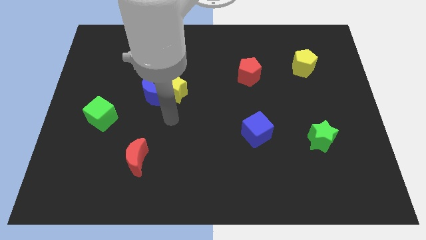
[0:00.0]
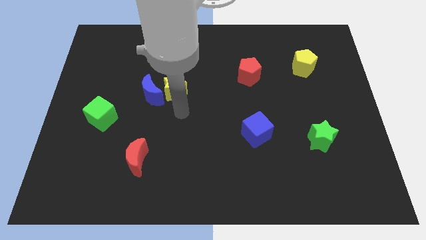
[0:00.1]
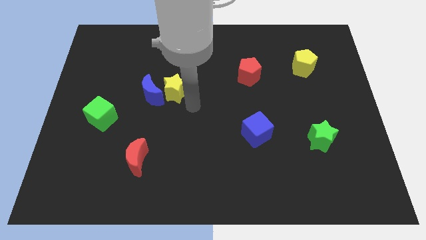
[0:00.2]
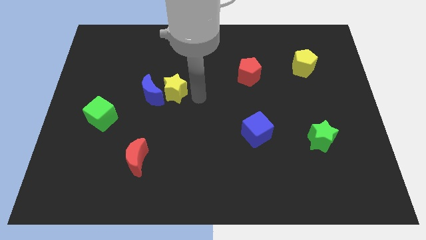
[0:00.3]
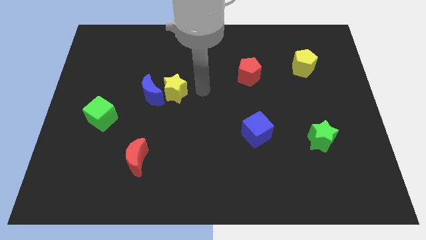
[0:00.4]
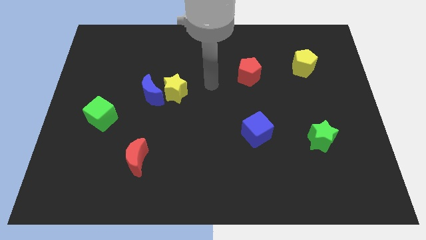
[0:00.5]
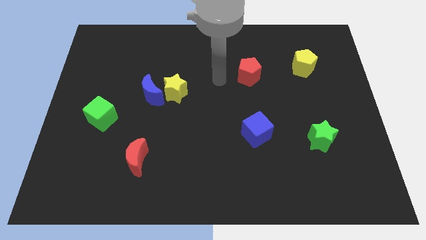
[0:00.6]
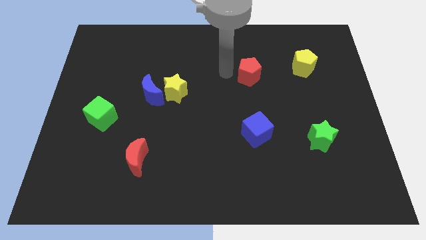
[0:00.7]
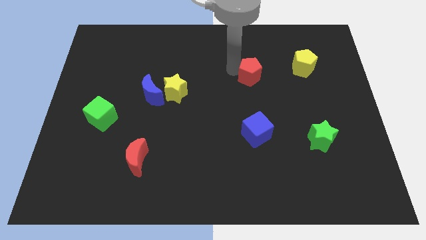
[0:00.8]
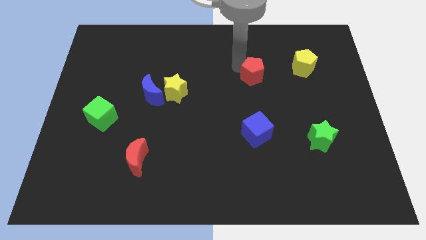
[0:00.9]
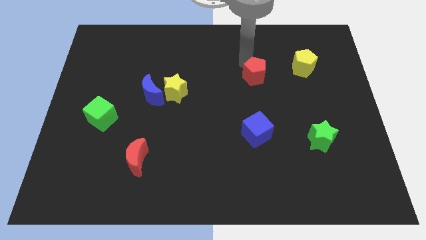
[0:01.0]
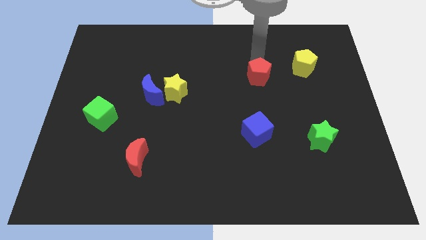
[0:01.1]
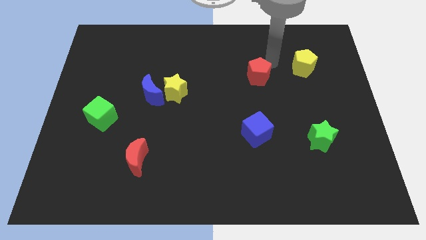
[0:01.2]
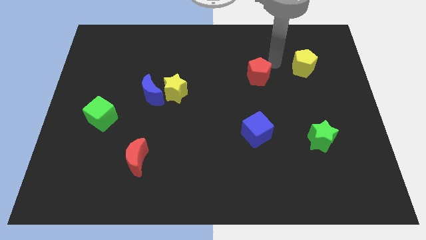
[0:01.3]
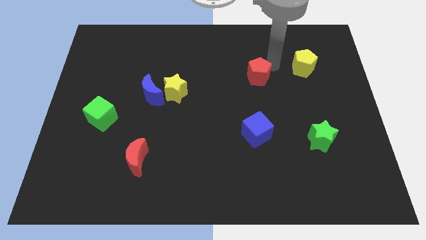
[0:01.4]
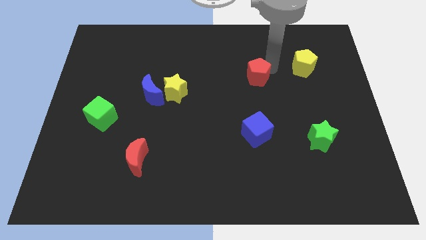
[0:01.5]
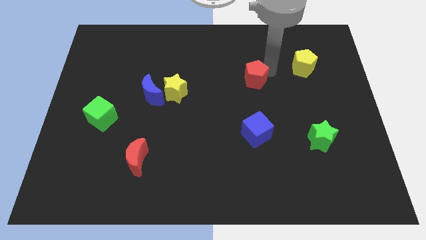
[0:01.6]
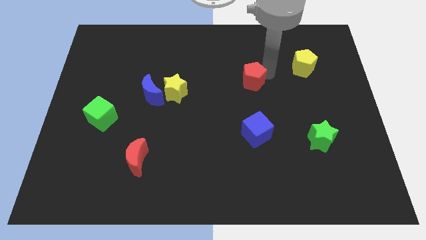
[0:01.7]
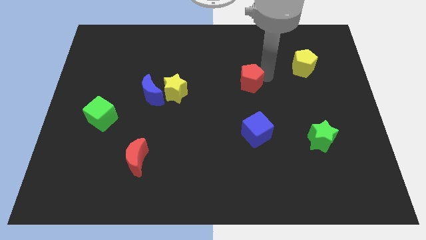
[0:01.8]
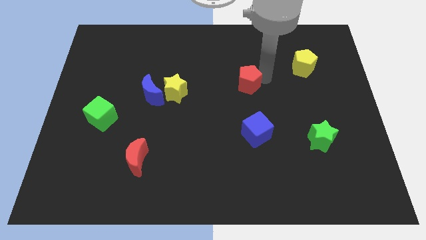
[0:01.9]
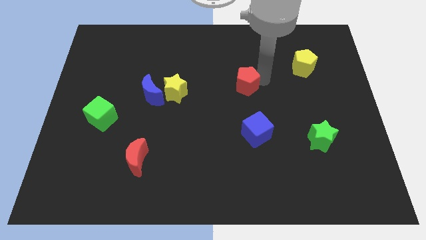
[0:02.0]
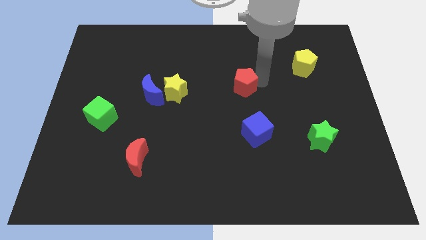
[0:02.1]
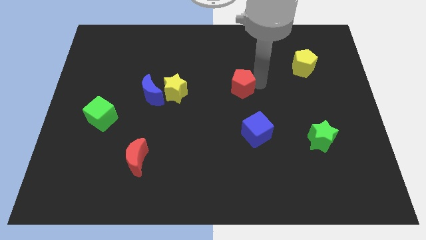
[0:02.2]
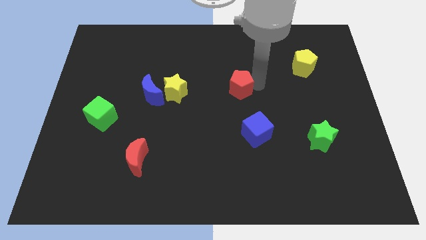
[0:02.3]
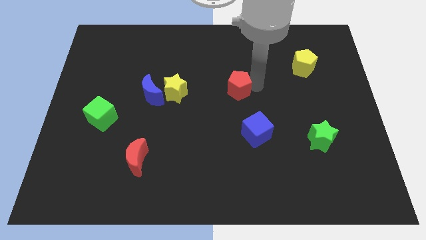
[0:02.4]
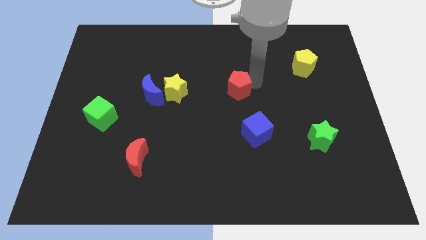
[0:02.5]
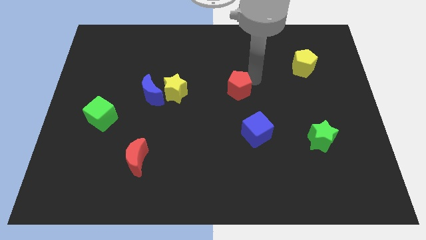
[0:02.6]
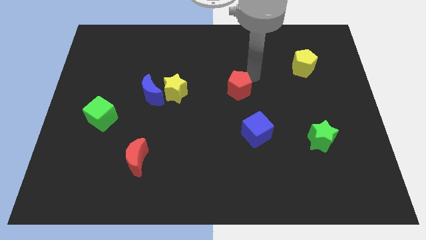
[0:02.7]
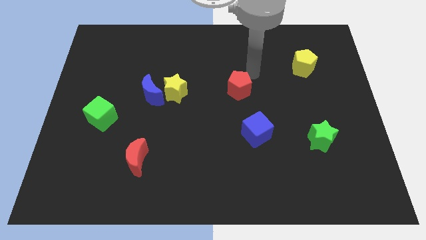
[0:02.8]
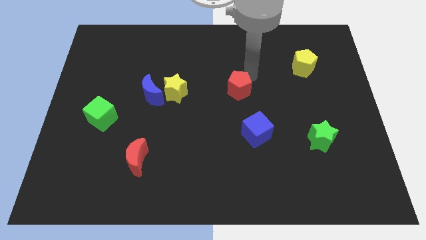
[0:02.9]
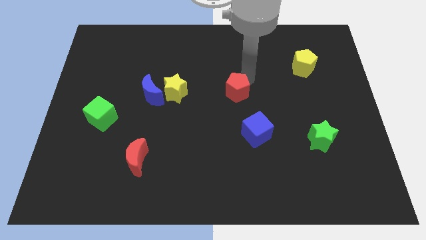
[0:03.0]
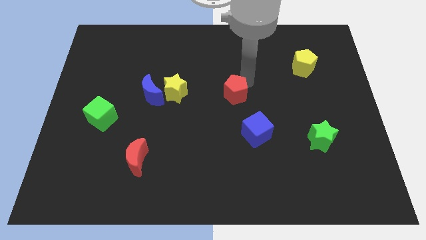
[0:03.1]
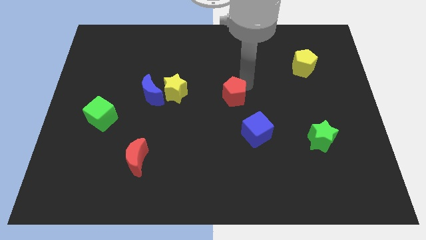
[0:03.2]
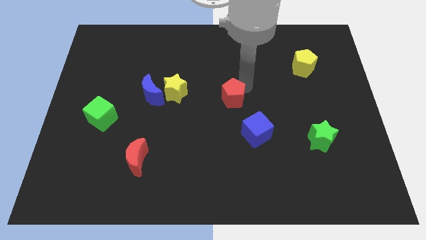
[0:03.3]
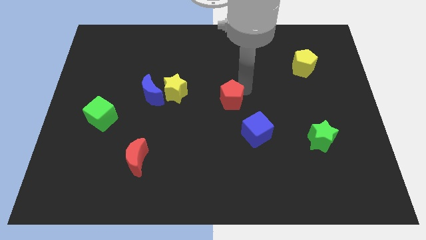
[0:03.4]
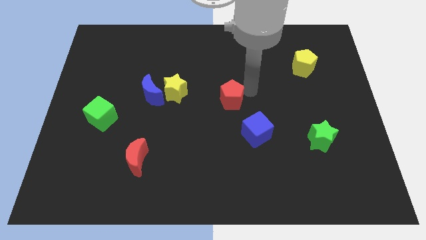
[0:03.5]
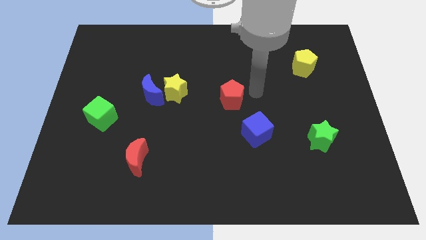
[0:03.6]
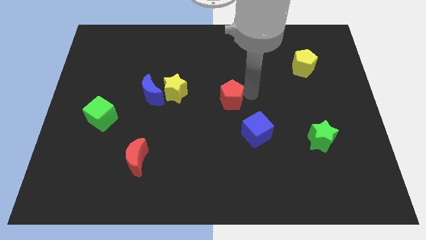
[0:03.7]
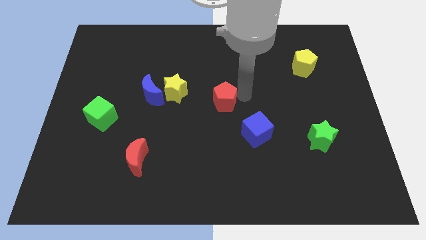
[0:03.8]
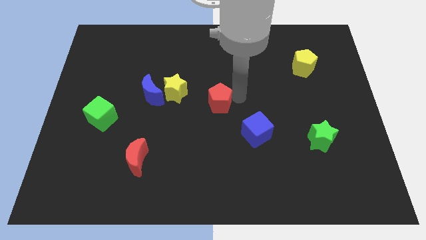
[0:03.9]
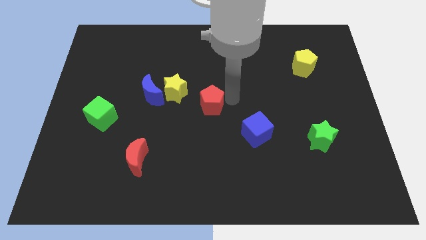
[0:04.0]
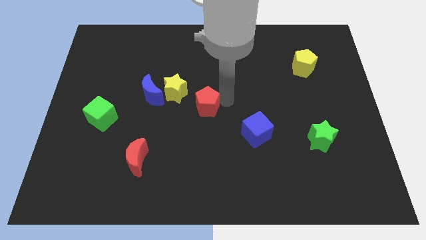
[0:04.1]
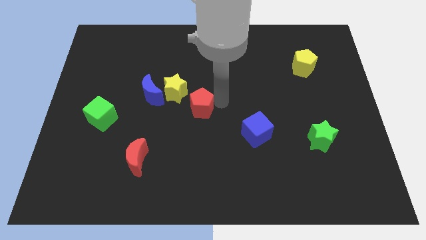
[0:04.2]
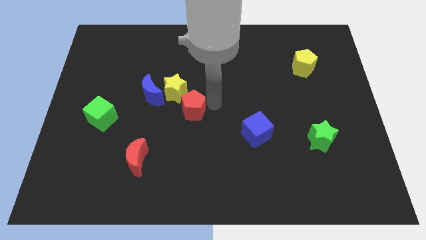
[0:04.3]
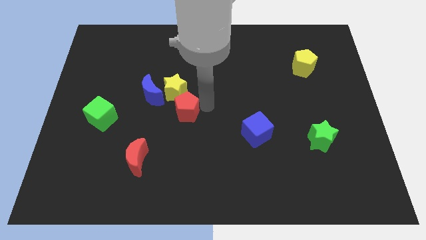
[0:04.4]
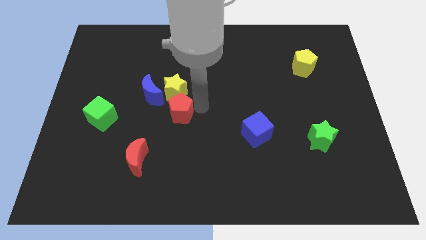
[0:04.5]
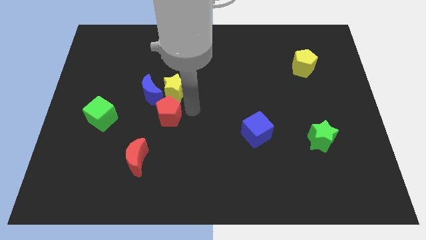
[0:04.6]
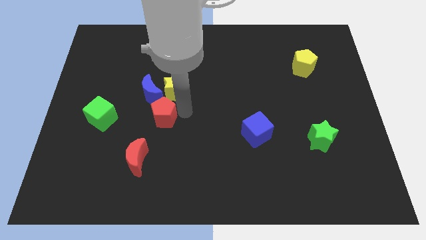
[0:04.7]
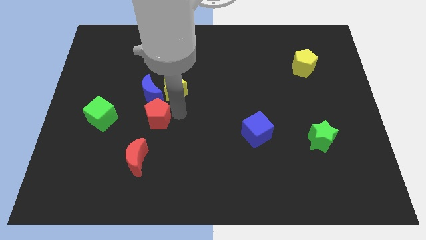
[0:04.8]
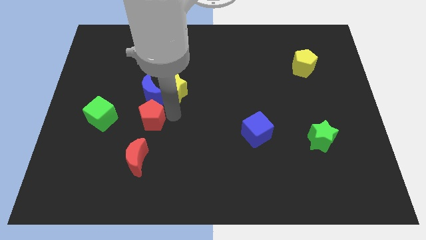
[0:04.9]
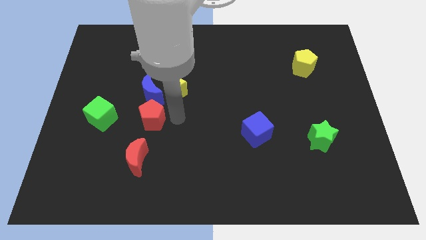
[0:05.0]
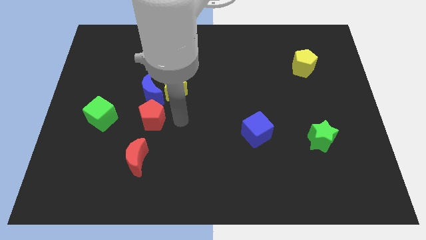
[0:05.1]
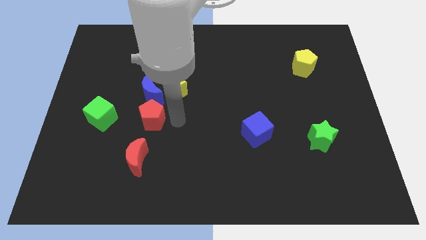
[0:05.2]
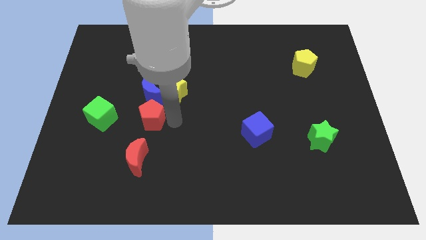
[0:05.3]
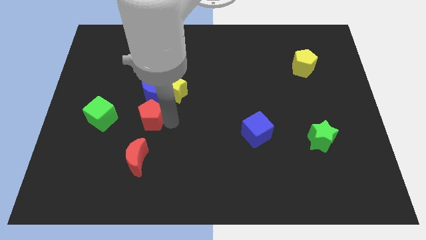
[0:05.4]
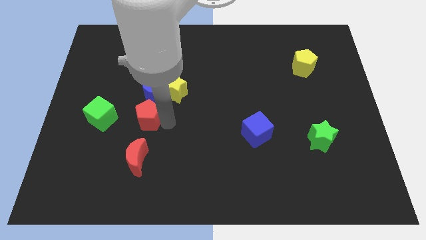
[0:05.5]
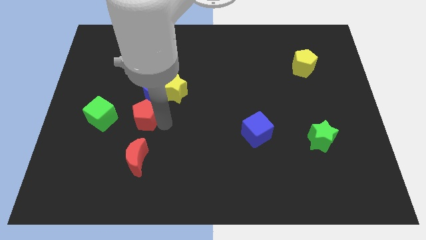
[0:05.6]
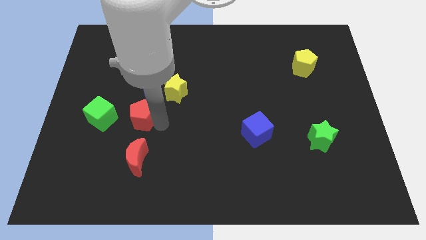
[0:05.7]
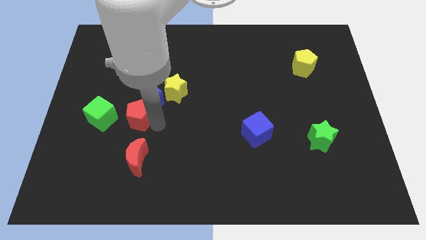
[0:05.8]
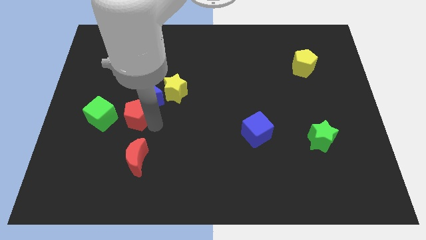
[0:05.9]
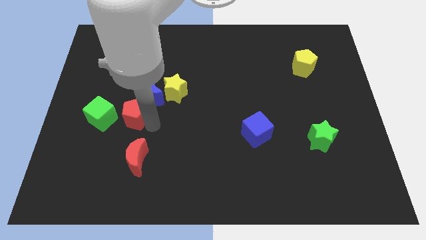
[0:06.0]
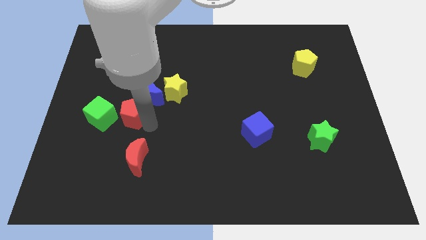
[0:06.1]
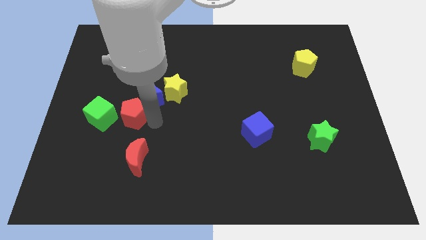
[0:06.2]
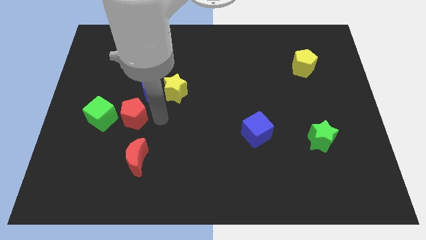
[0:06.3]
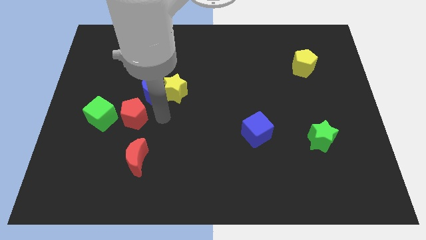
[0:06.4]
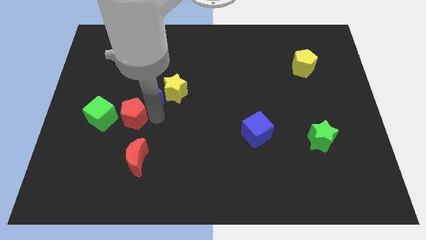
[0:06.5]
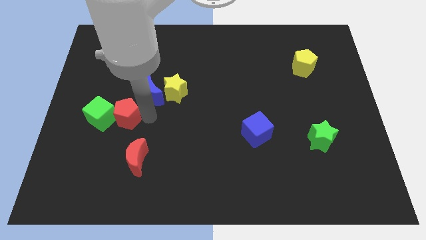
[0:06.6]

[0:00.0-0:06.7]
push the red pentagon to the green cube

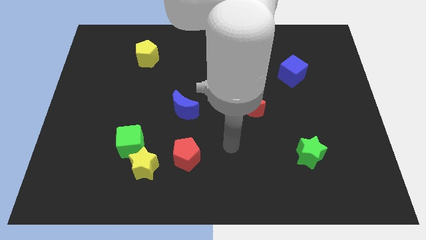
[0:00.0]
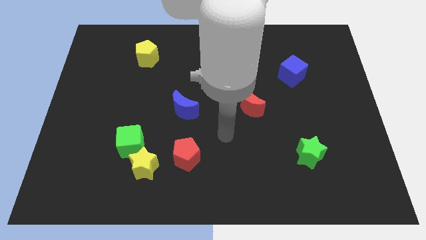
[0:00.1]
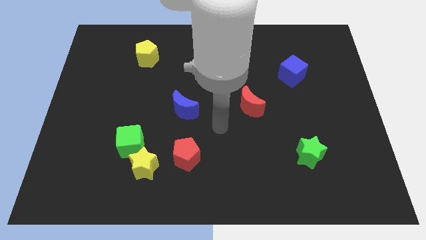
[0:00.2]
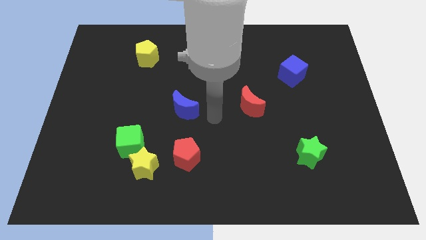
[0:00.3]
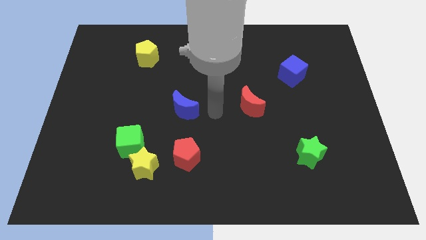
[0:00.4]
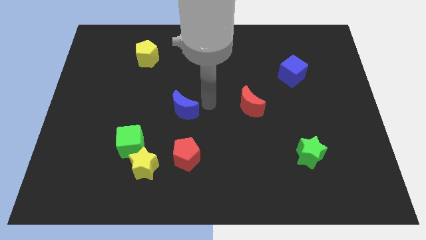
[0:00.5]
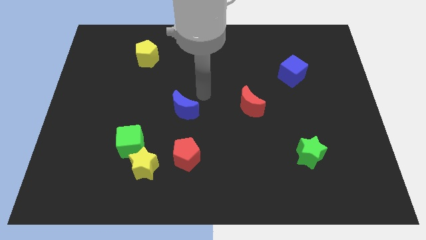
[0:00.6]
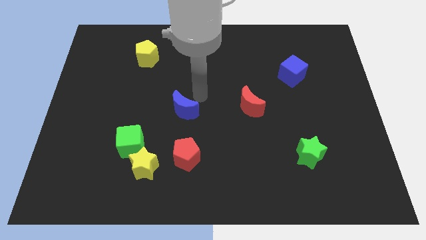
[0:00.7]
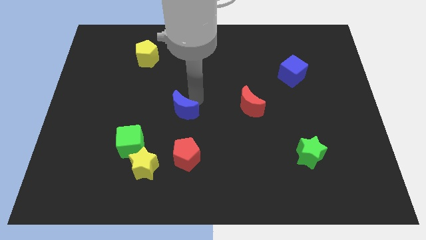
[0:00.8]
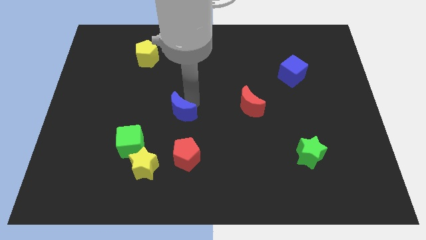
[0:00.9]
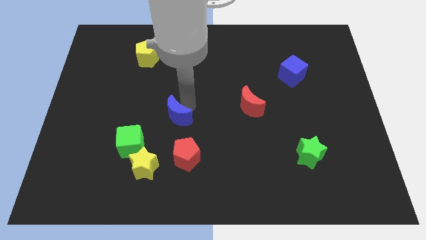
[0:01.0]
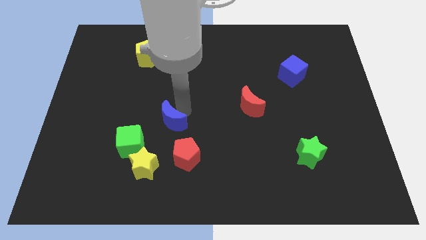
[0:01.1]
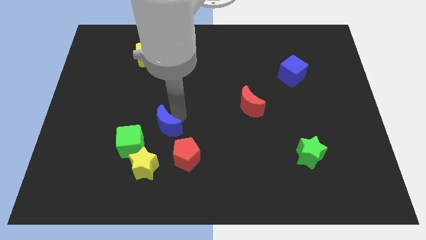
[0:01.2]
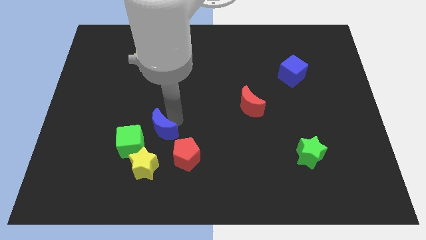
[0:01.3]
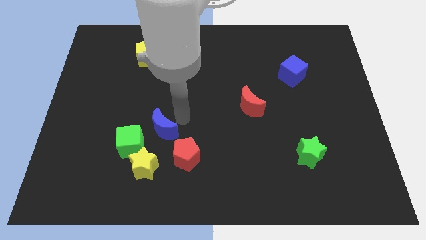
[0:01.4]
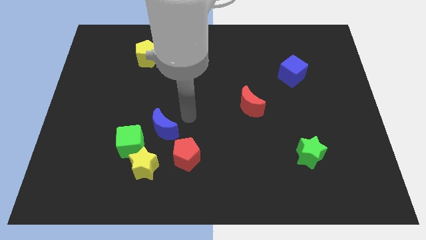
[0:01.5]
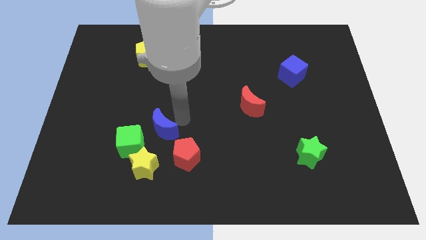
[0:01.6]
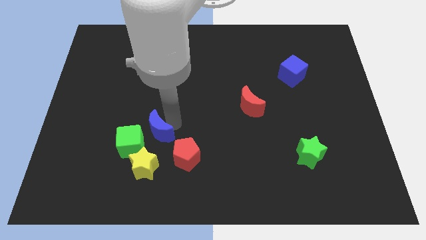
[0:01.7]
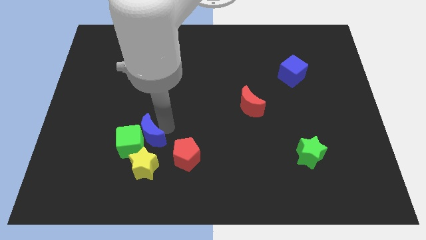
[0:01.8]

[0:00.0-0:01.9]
put the blue moon to the green cube
